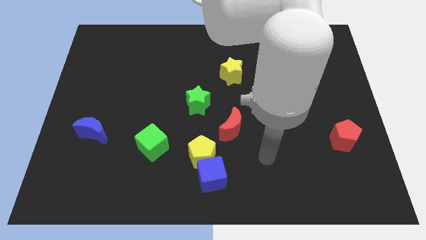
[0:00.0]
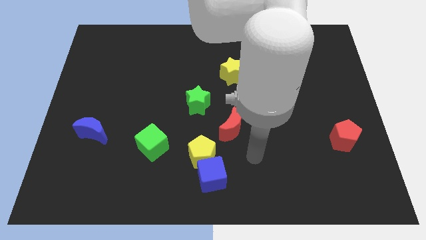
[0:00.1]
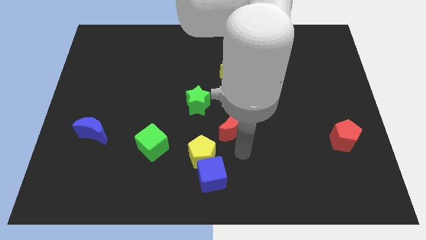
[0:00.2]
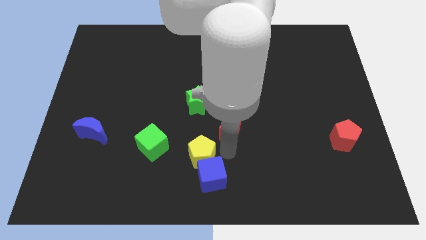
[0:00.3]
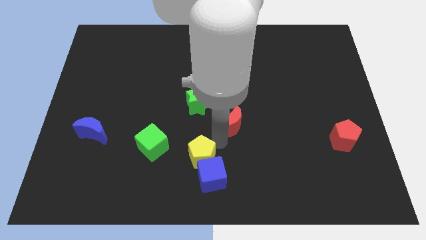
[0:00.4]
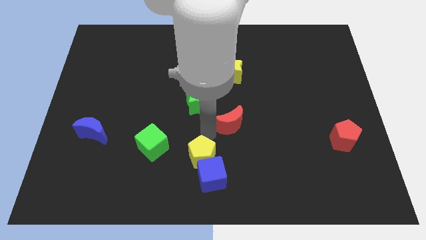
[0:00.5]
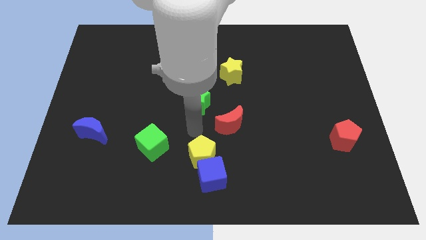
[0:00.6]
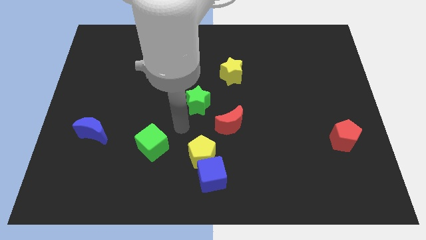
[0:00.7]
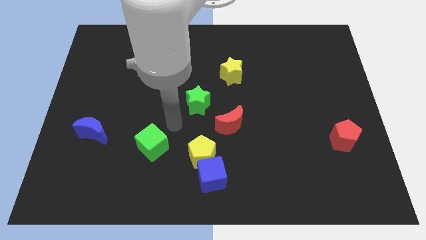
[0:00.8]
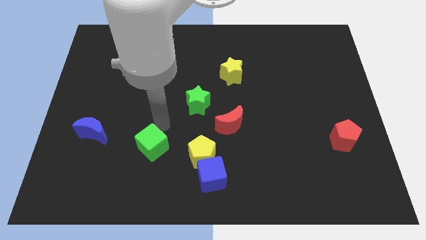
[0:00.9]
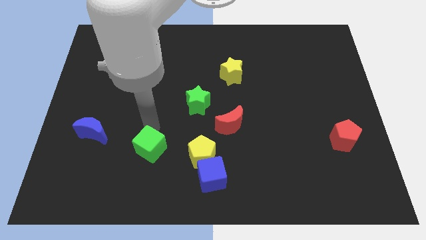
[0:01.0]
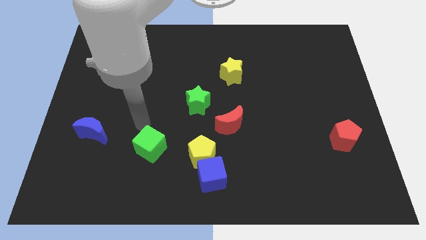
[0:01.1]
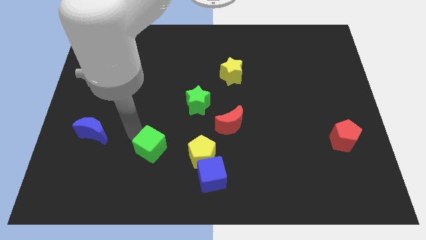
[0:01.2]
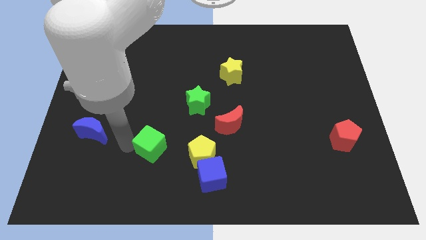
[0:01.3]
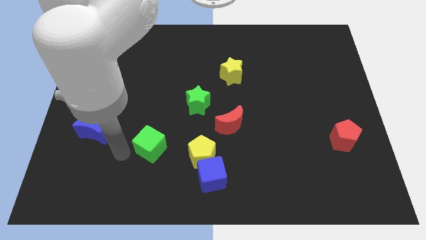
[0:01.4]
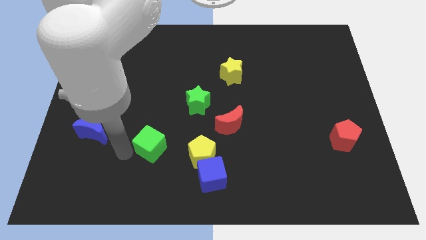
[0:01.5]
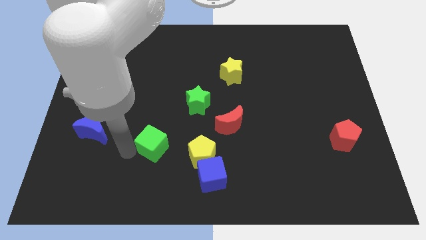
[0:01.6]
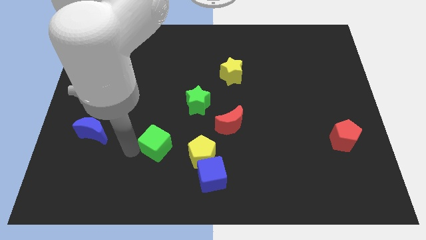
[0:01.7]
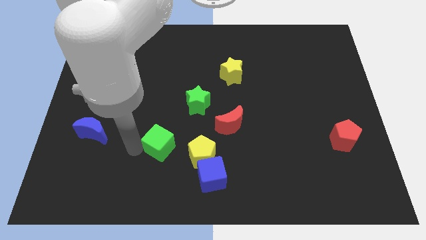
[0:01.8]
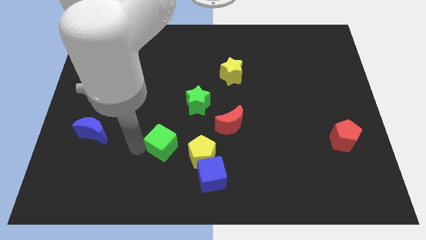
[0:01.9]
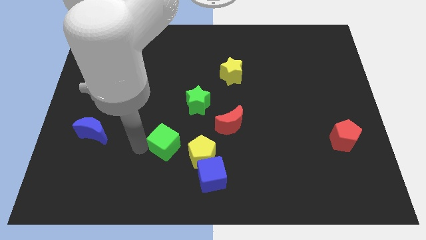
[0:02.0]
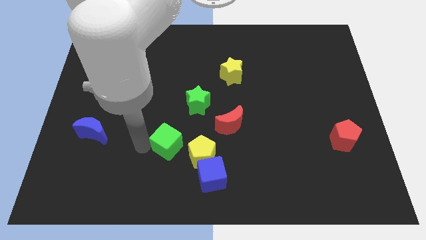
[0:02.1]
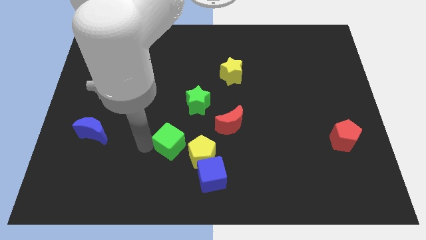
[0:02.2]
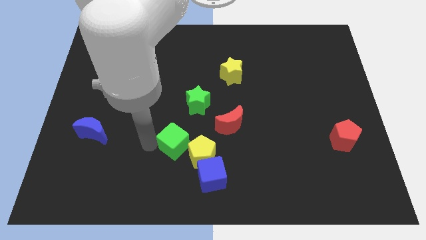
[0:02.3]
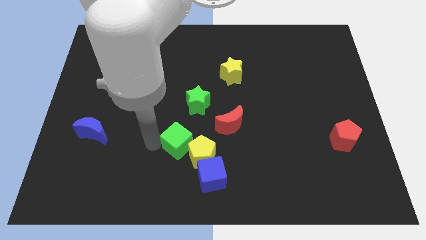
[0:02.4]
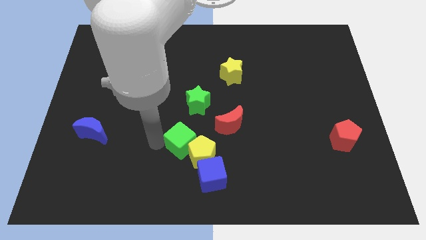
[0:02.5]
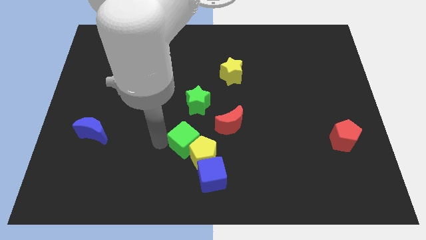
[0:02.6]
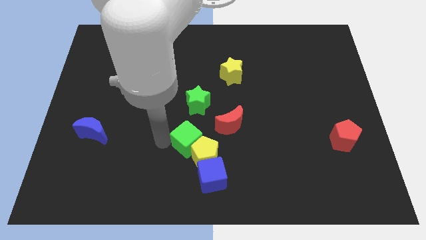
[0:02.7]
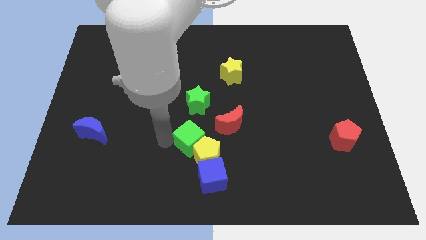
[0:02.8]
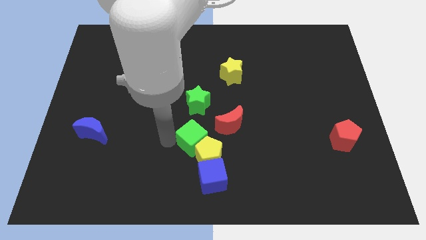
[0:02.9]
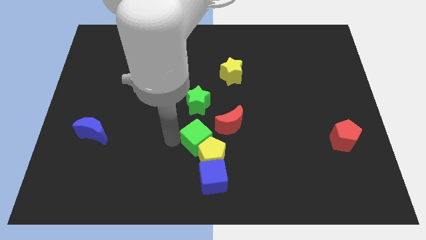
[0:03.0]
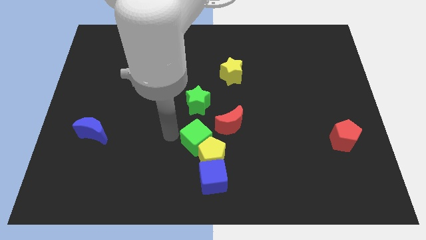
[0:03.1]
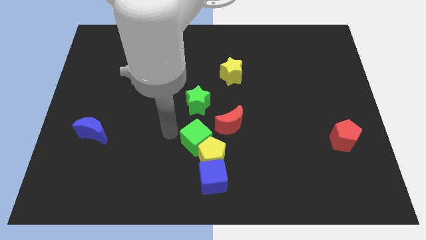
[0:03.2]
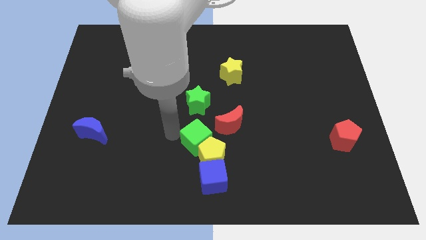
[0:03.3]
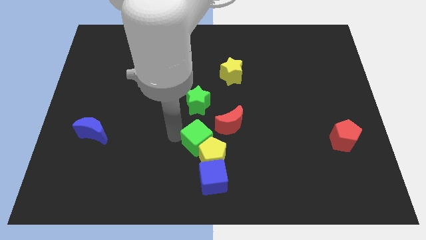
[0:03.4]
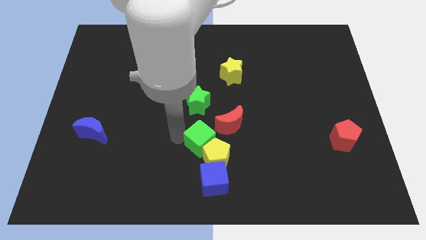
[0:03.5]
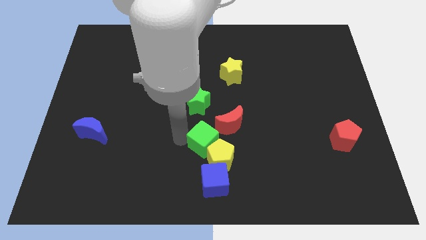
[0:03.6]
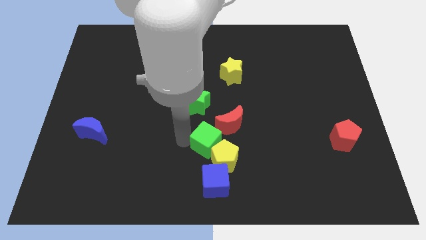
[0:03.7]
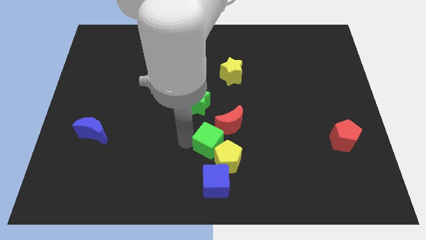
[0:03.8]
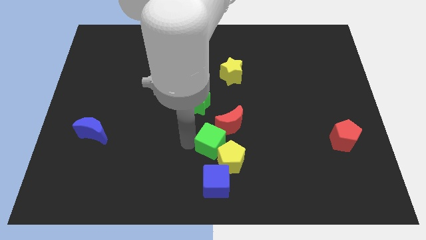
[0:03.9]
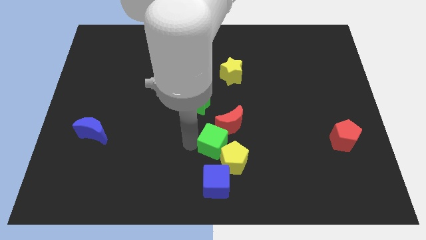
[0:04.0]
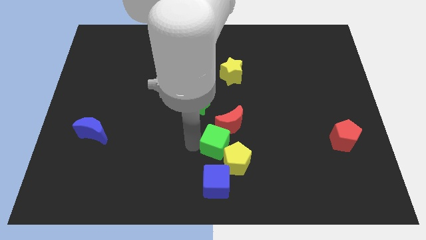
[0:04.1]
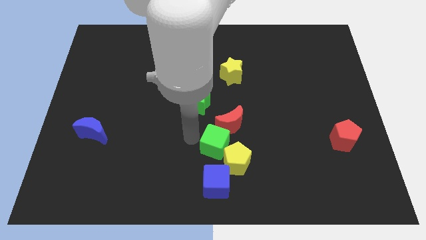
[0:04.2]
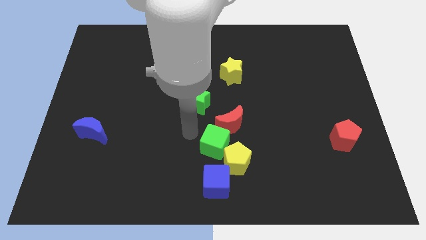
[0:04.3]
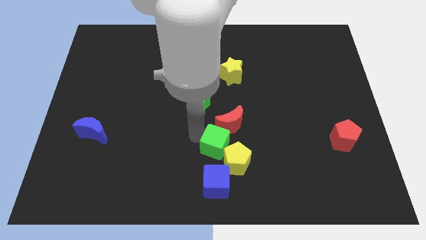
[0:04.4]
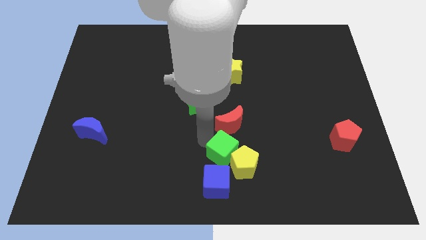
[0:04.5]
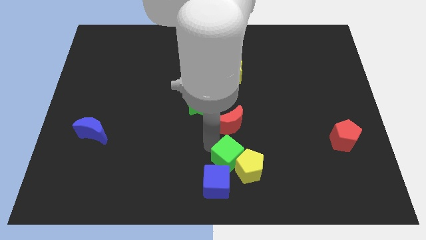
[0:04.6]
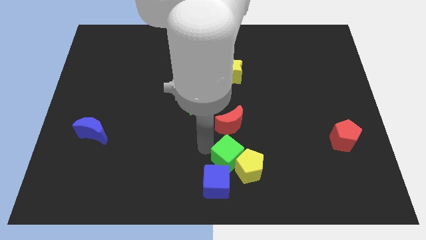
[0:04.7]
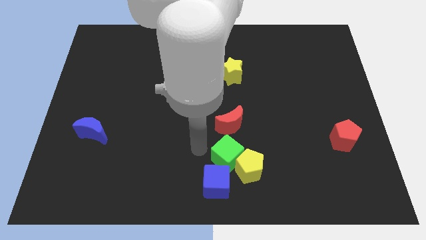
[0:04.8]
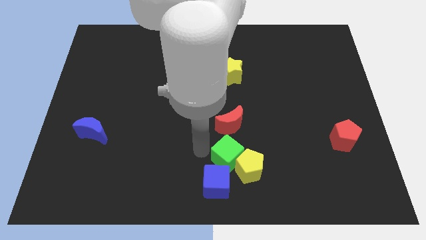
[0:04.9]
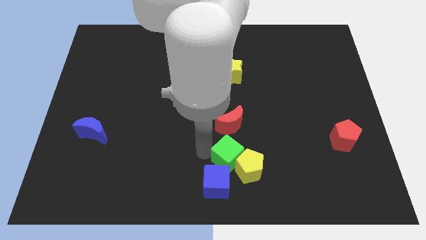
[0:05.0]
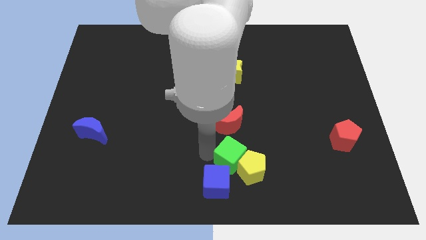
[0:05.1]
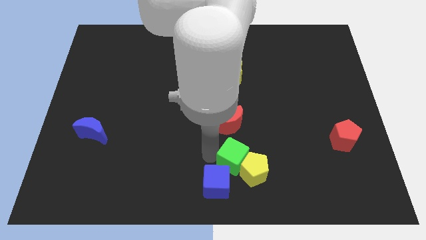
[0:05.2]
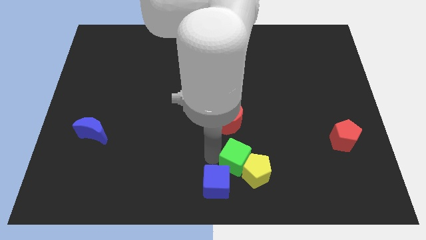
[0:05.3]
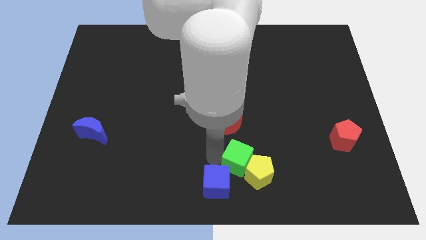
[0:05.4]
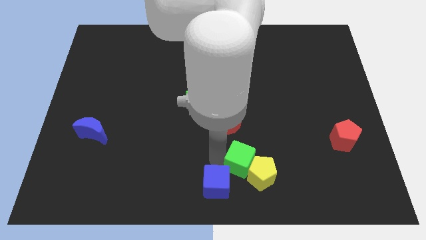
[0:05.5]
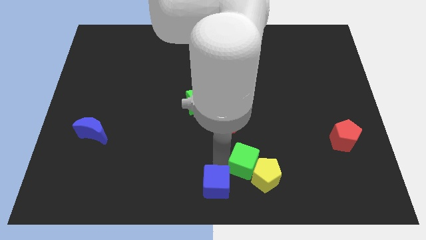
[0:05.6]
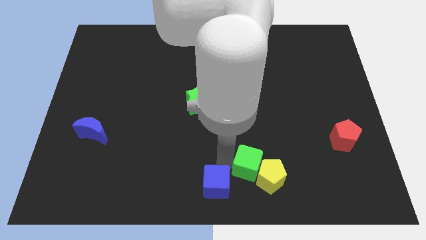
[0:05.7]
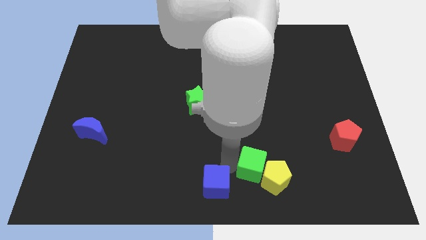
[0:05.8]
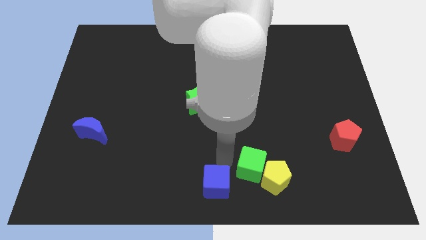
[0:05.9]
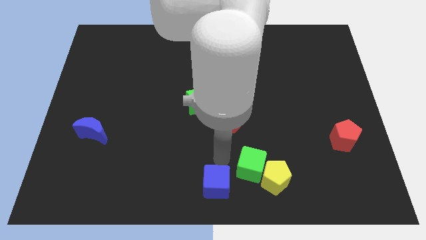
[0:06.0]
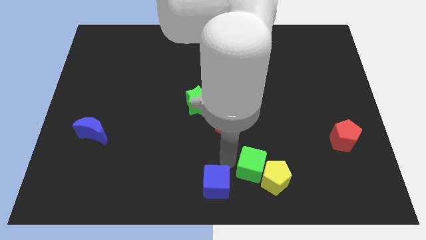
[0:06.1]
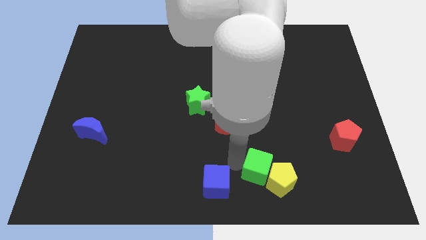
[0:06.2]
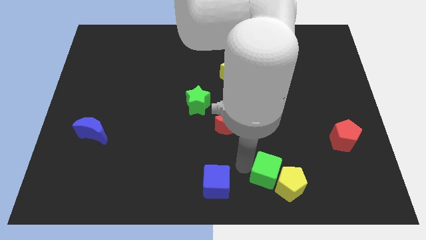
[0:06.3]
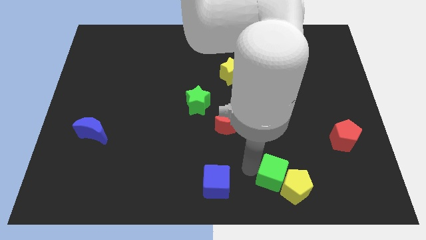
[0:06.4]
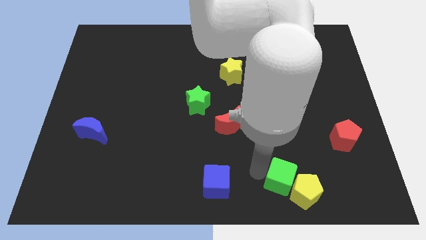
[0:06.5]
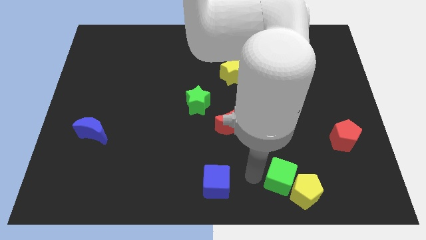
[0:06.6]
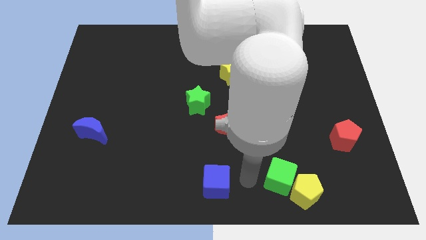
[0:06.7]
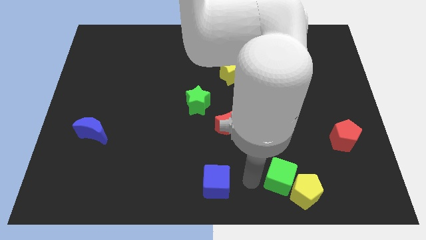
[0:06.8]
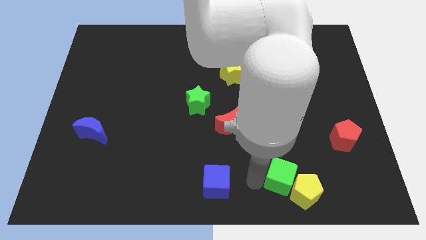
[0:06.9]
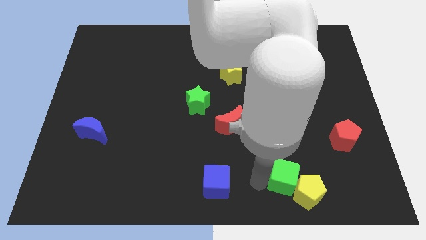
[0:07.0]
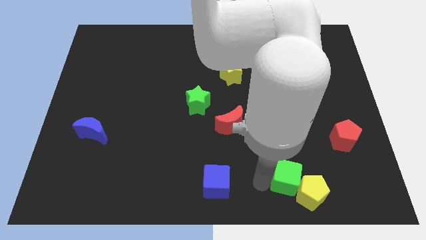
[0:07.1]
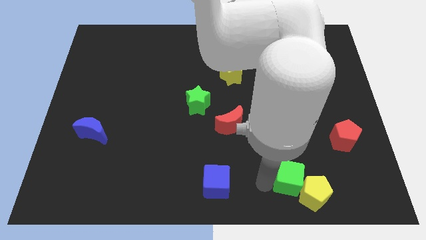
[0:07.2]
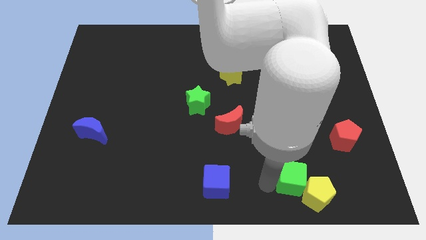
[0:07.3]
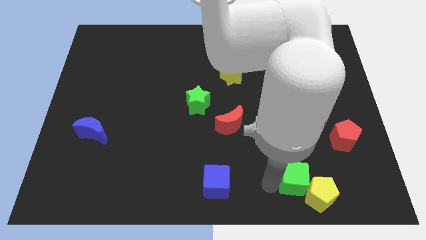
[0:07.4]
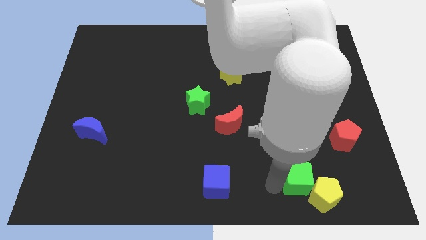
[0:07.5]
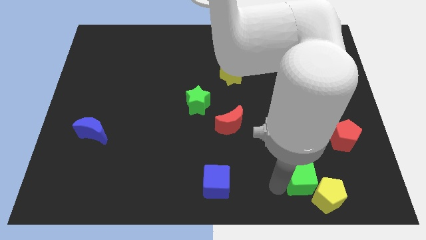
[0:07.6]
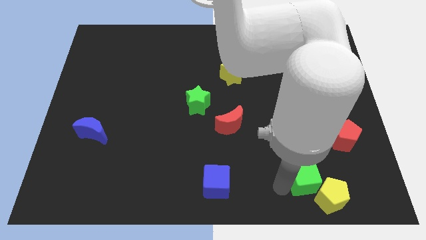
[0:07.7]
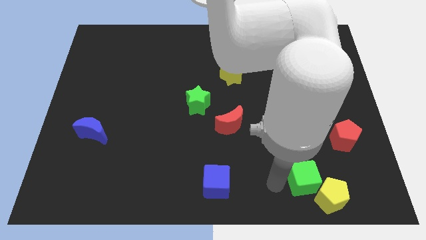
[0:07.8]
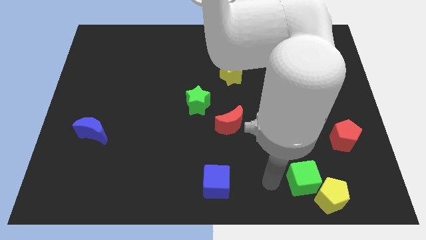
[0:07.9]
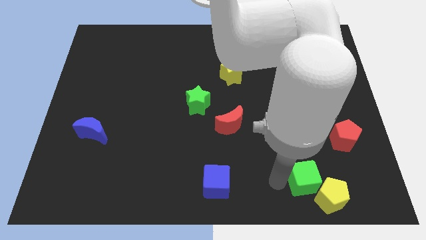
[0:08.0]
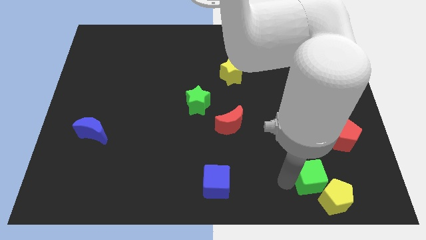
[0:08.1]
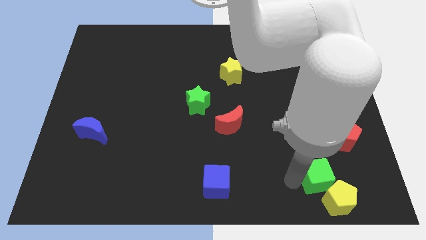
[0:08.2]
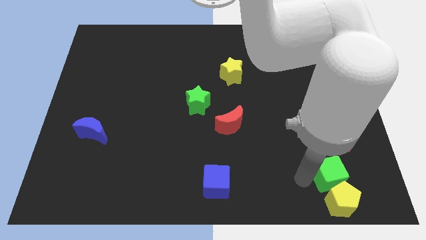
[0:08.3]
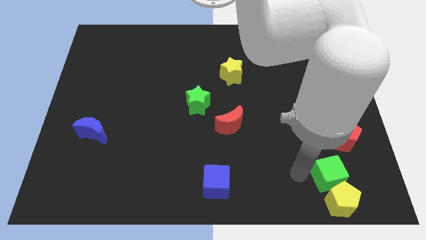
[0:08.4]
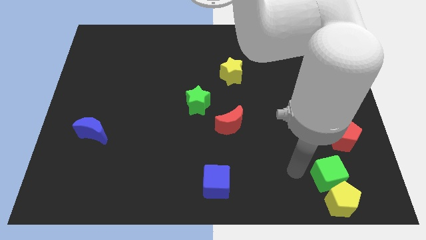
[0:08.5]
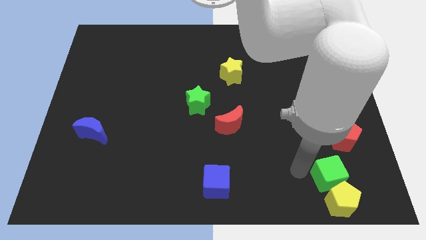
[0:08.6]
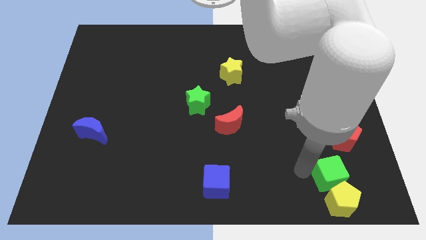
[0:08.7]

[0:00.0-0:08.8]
move the green cube below the red pentagon
